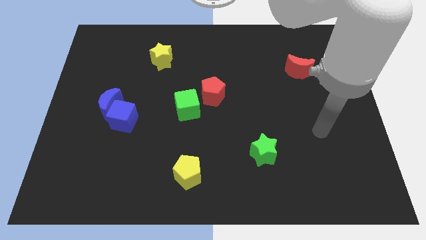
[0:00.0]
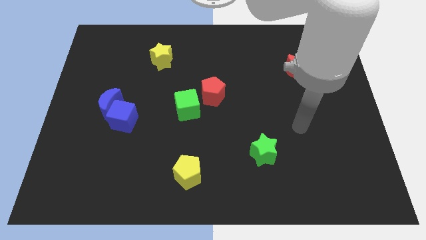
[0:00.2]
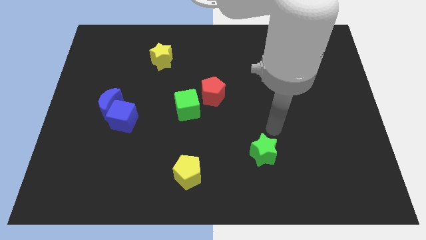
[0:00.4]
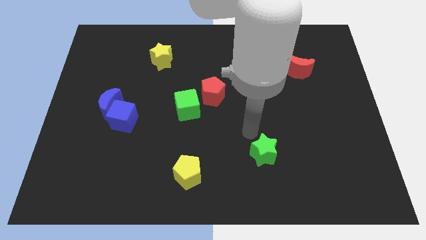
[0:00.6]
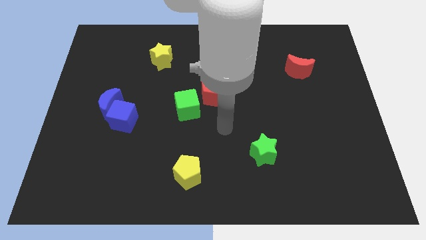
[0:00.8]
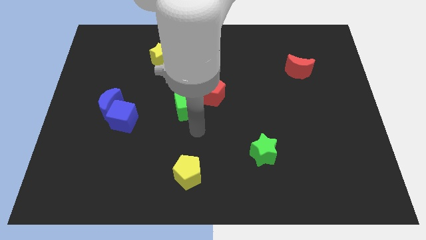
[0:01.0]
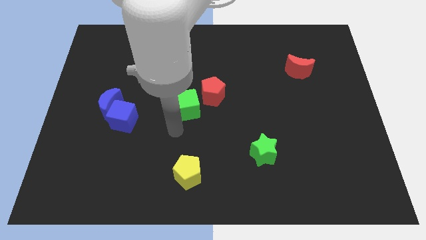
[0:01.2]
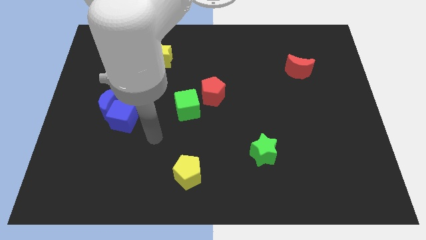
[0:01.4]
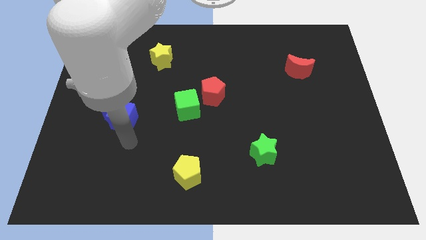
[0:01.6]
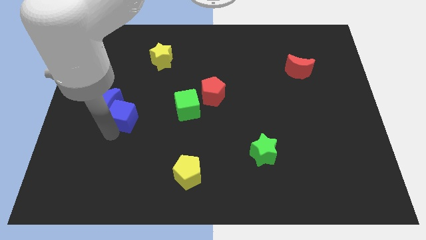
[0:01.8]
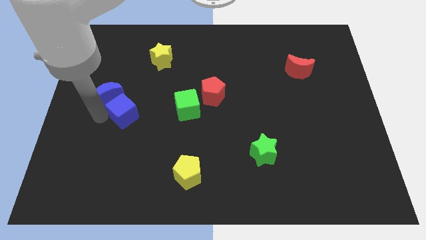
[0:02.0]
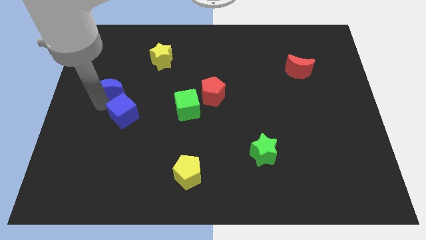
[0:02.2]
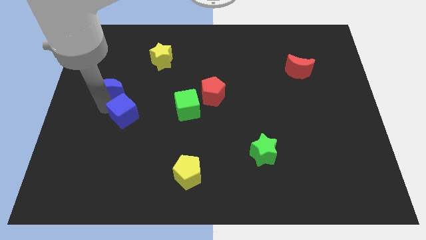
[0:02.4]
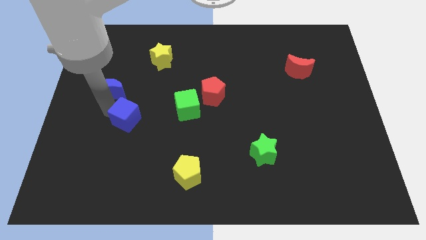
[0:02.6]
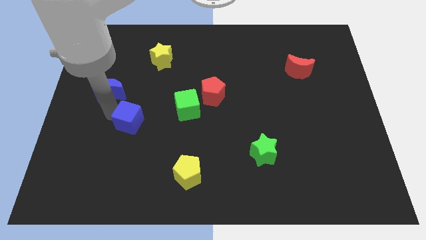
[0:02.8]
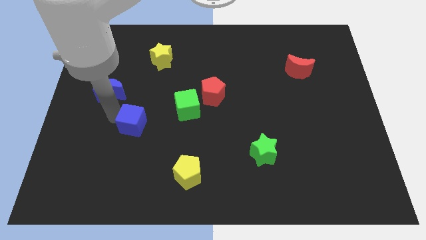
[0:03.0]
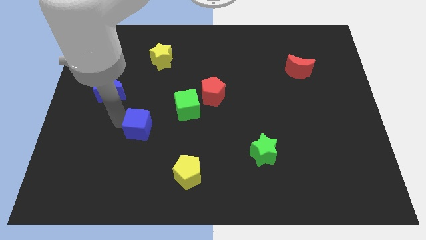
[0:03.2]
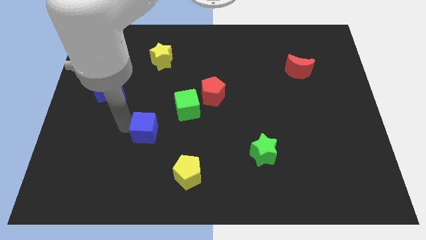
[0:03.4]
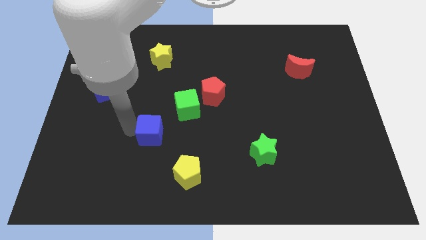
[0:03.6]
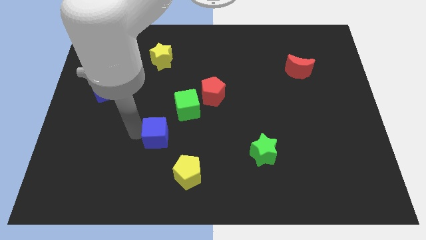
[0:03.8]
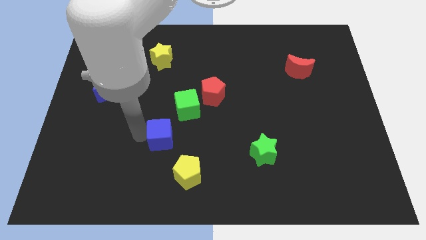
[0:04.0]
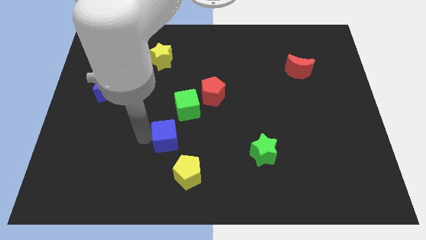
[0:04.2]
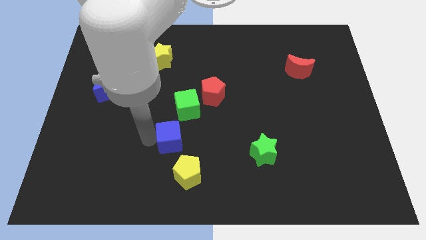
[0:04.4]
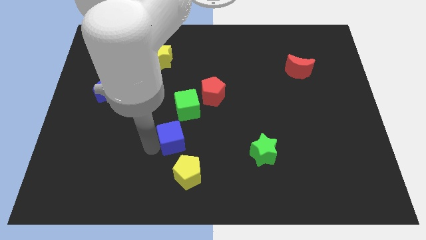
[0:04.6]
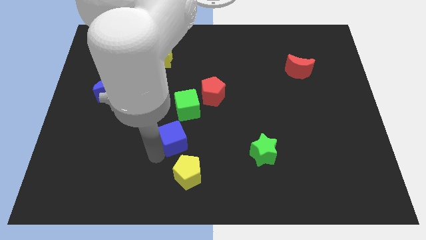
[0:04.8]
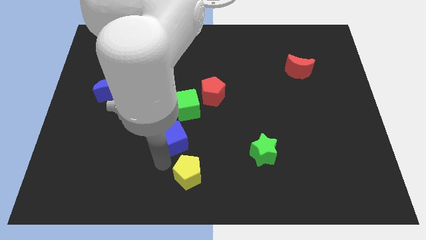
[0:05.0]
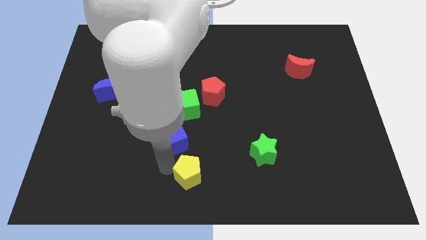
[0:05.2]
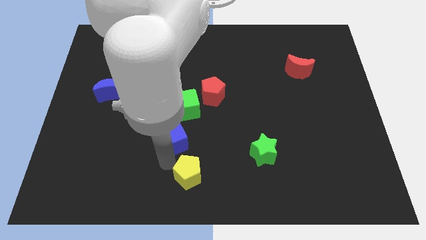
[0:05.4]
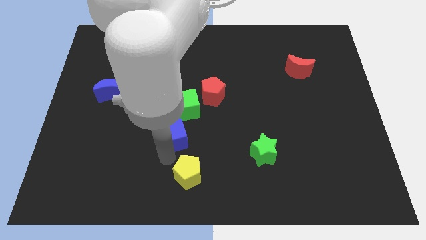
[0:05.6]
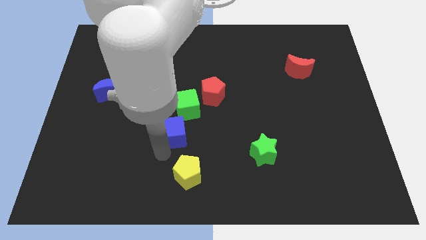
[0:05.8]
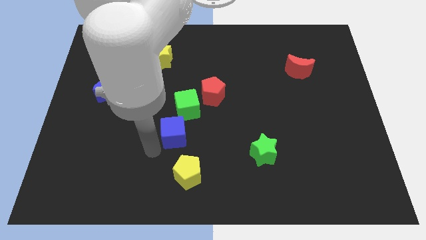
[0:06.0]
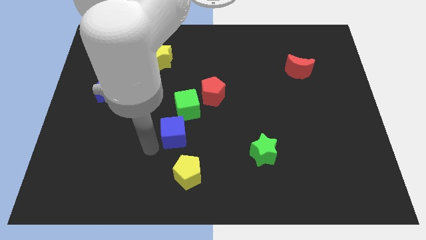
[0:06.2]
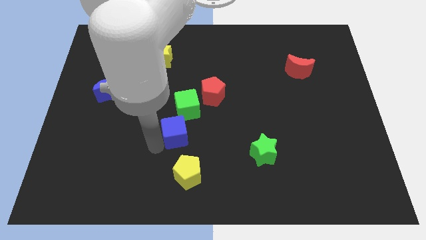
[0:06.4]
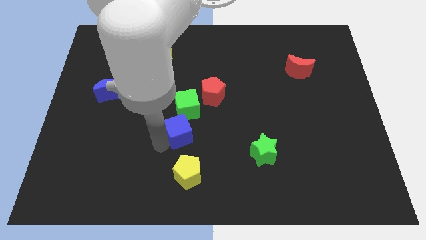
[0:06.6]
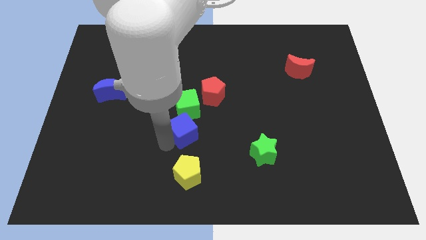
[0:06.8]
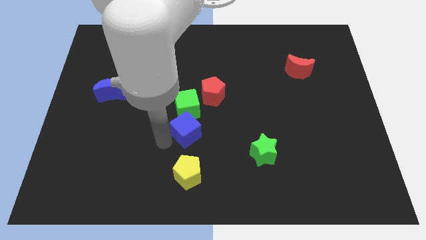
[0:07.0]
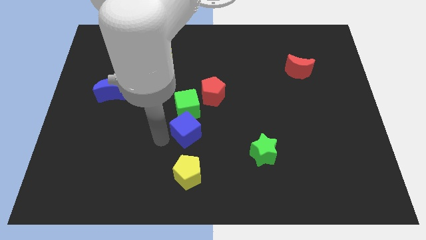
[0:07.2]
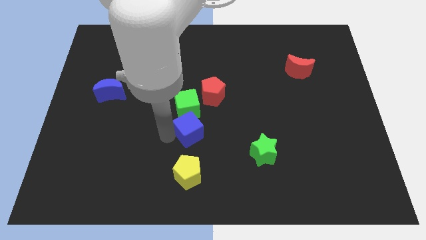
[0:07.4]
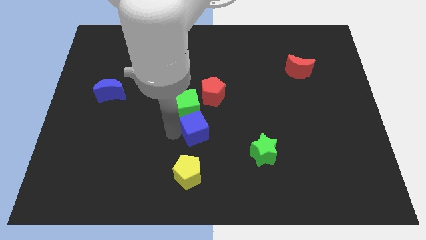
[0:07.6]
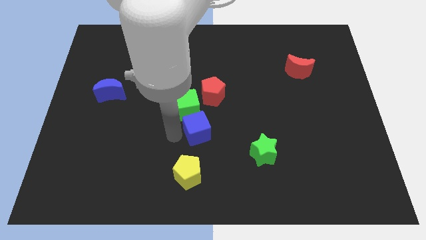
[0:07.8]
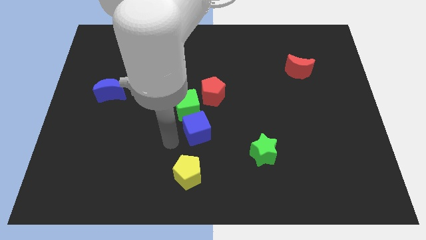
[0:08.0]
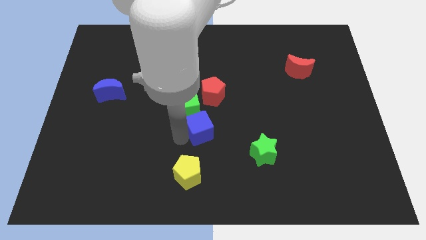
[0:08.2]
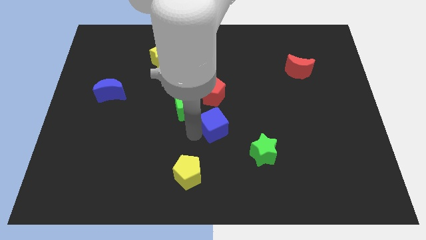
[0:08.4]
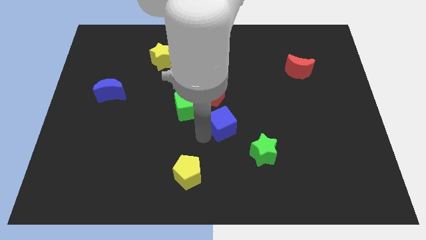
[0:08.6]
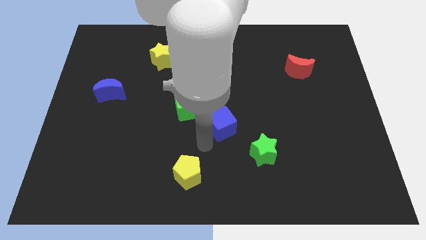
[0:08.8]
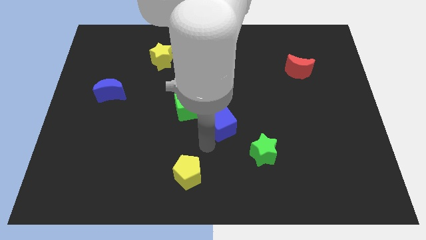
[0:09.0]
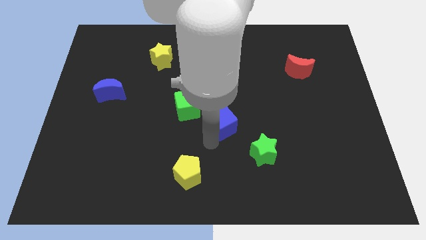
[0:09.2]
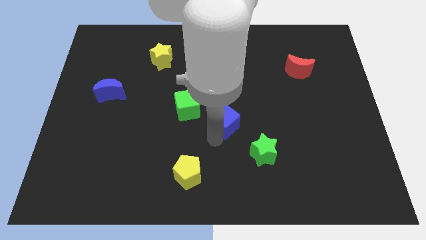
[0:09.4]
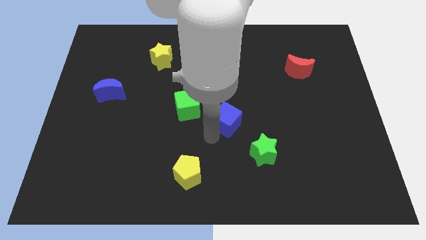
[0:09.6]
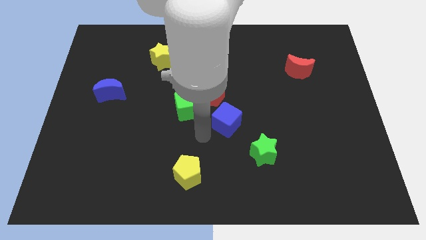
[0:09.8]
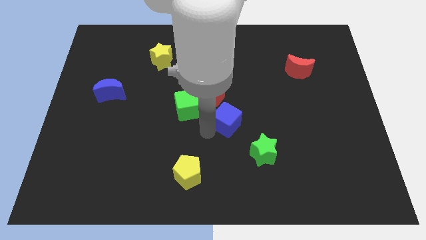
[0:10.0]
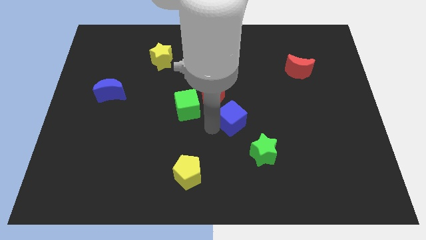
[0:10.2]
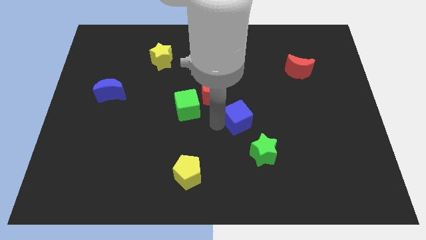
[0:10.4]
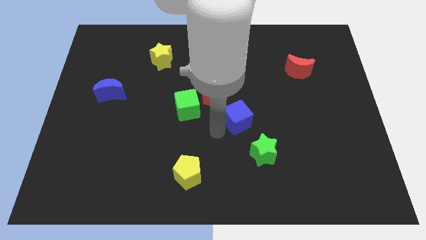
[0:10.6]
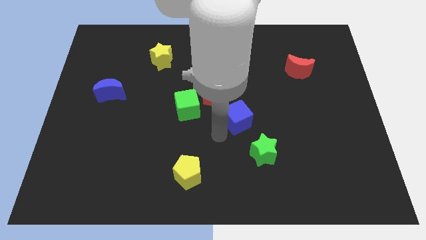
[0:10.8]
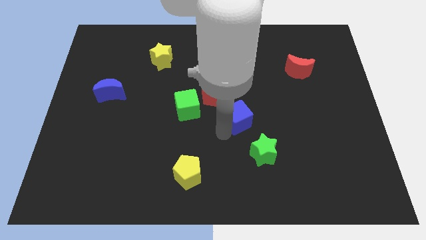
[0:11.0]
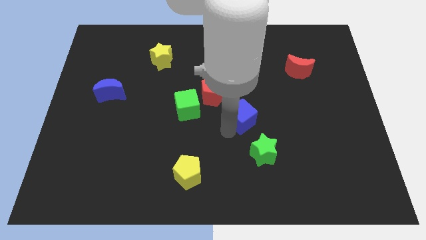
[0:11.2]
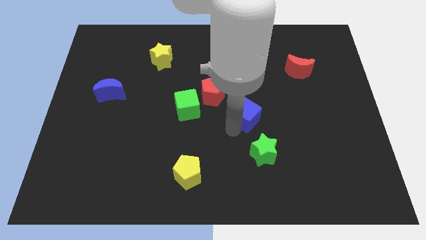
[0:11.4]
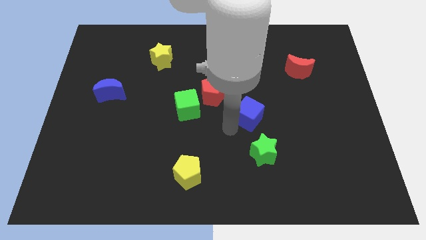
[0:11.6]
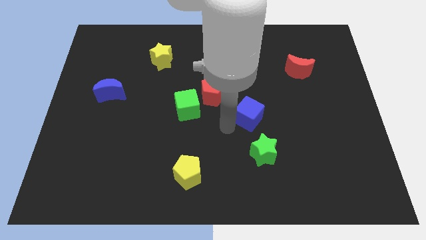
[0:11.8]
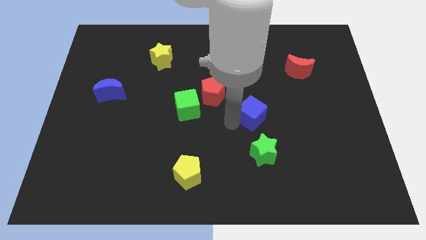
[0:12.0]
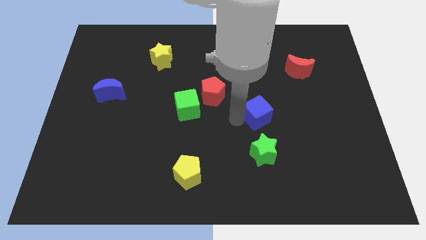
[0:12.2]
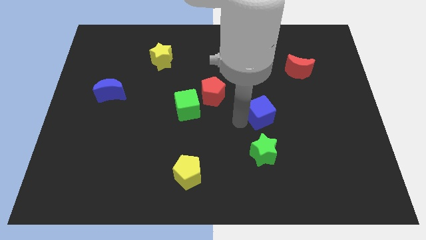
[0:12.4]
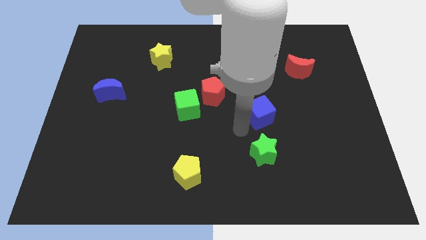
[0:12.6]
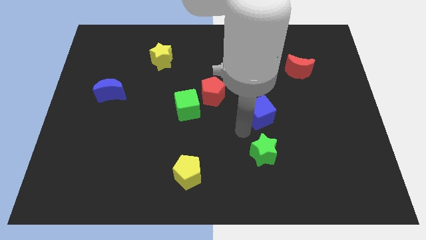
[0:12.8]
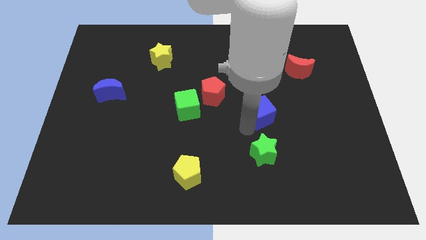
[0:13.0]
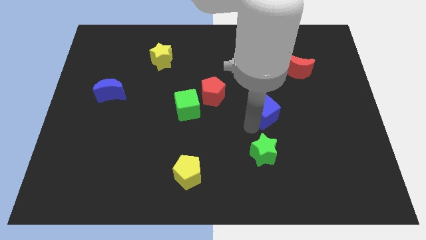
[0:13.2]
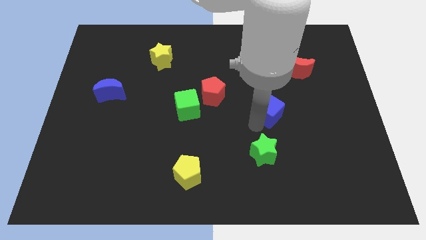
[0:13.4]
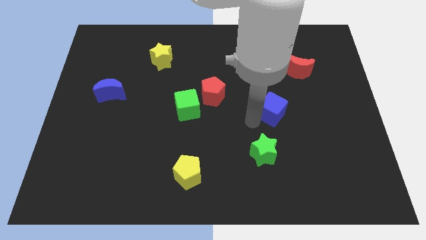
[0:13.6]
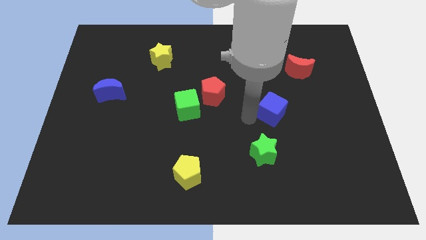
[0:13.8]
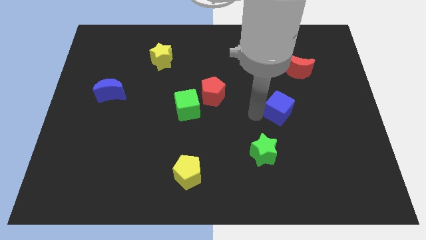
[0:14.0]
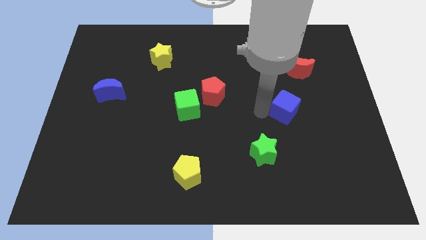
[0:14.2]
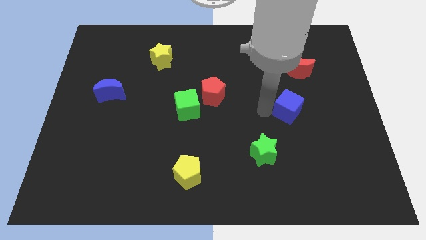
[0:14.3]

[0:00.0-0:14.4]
move the blue cube to the bottom side of the red moon
